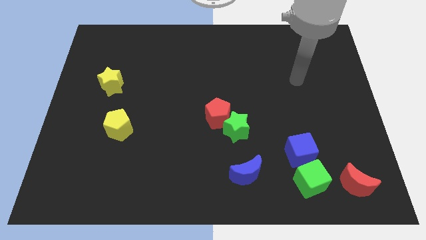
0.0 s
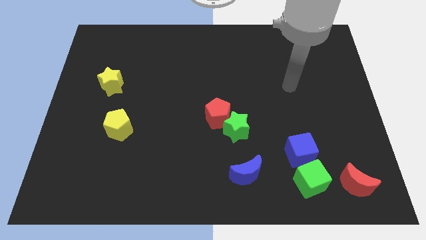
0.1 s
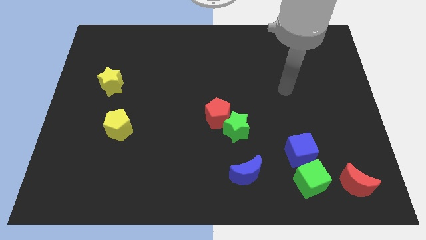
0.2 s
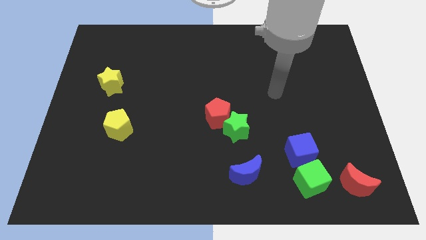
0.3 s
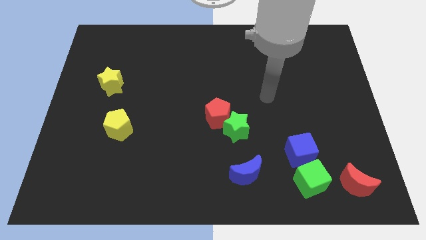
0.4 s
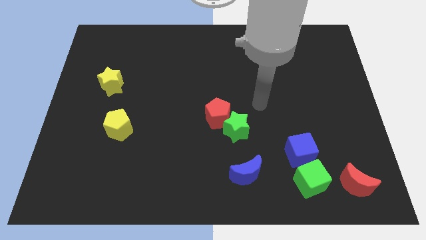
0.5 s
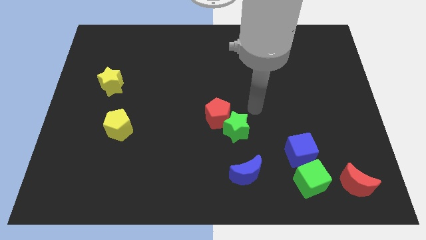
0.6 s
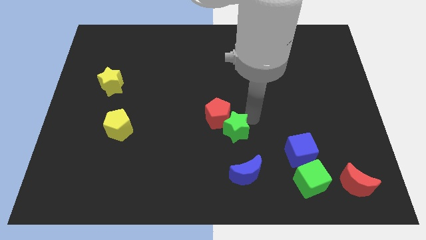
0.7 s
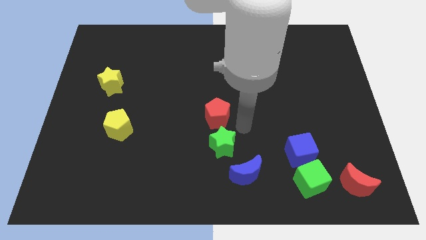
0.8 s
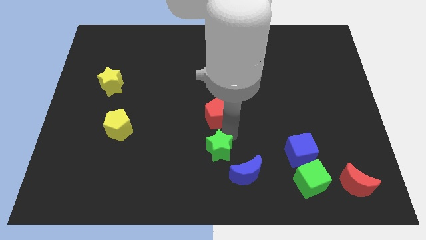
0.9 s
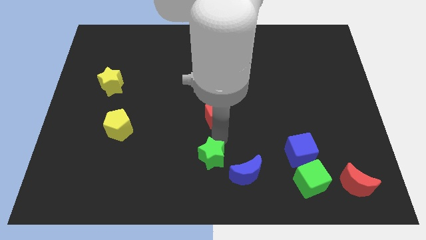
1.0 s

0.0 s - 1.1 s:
separate the red pentagon from the green star

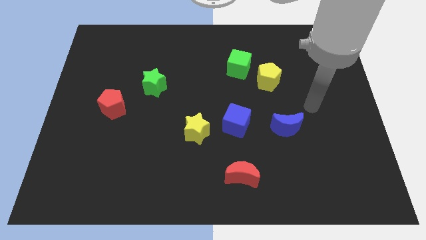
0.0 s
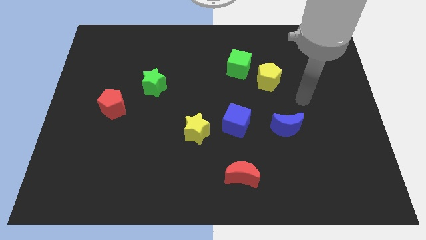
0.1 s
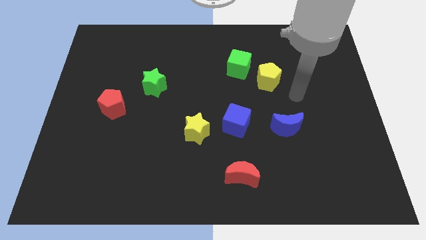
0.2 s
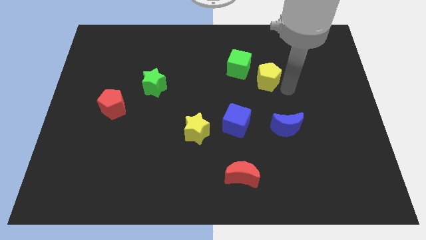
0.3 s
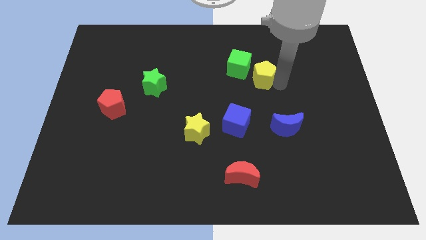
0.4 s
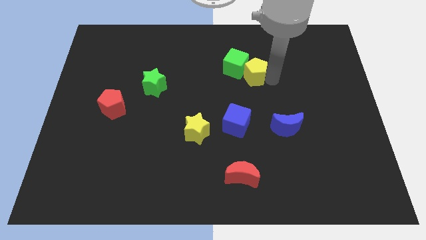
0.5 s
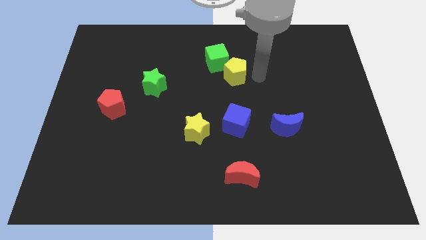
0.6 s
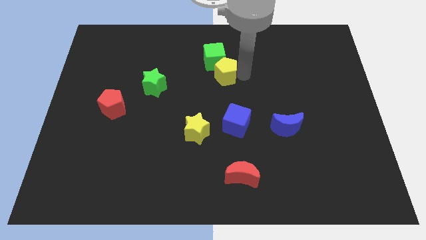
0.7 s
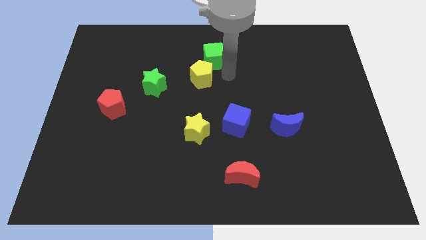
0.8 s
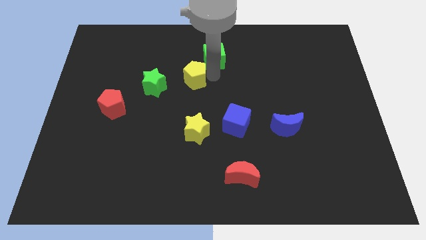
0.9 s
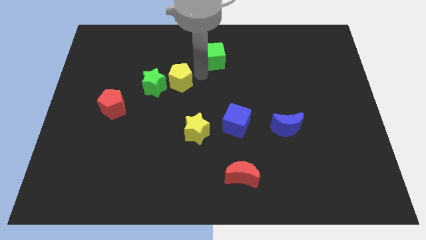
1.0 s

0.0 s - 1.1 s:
separate the green cube from the yellow pentagon

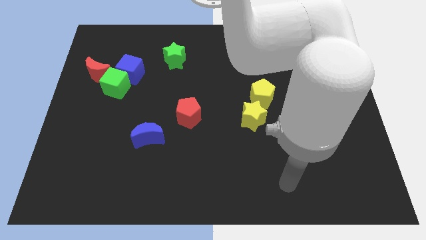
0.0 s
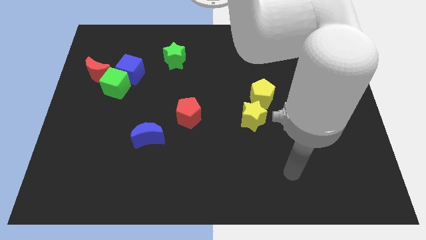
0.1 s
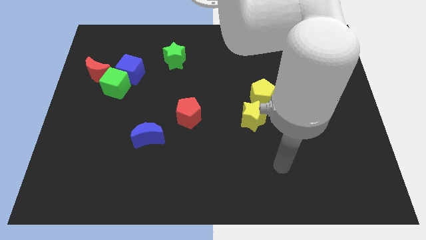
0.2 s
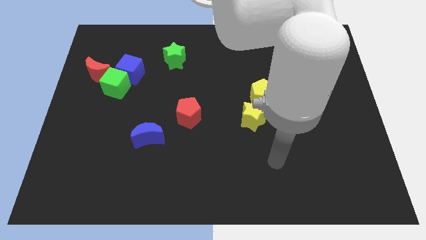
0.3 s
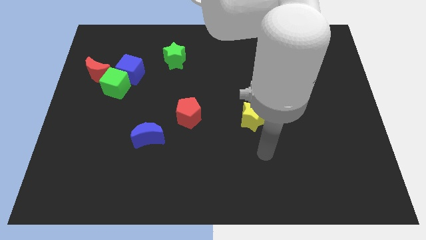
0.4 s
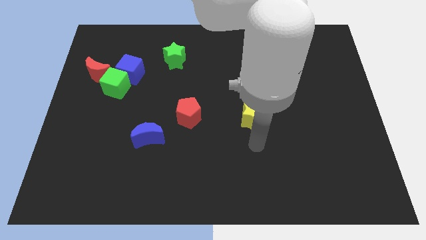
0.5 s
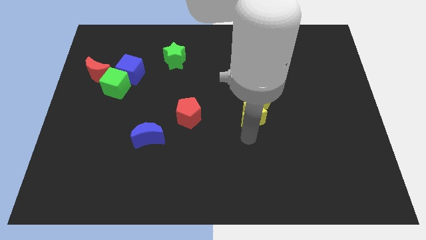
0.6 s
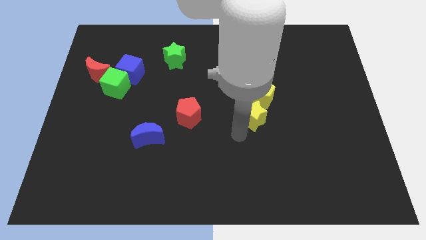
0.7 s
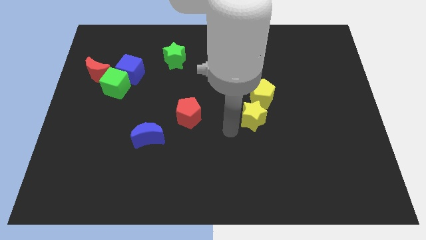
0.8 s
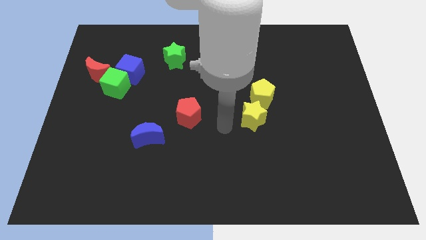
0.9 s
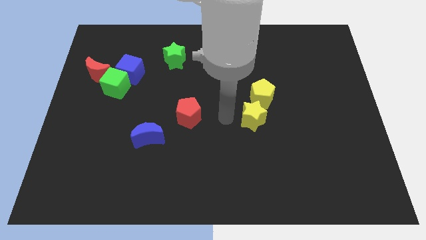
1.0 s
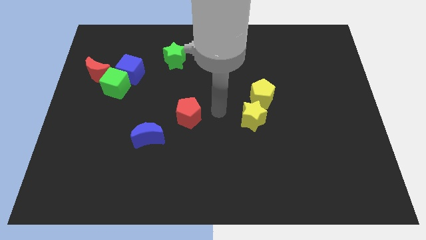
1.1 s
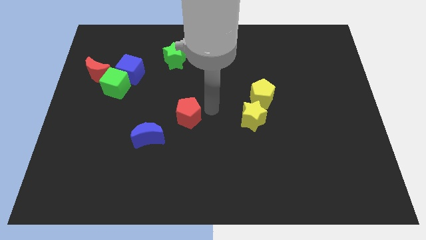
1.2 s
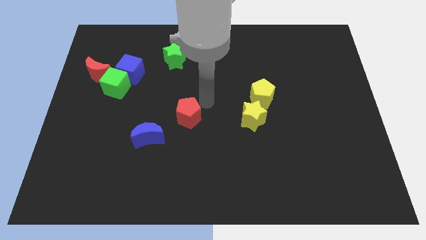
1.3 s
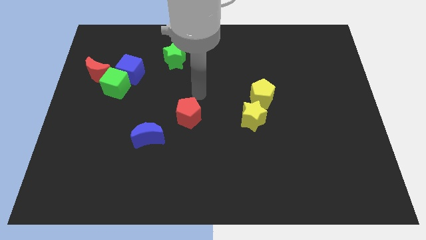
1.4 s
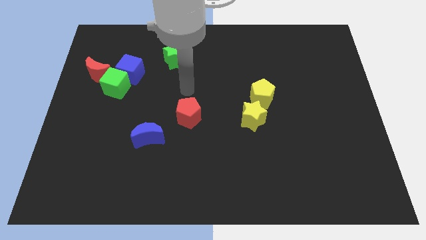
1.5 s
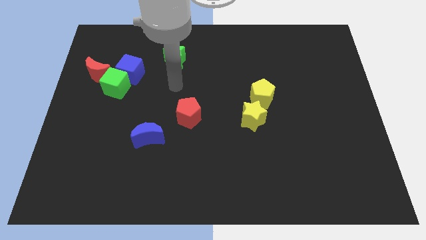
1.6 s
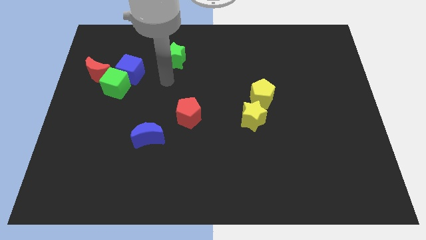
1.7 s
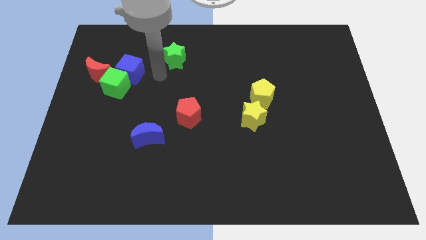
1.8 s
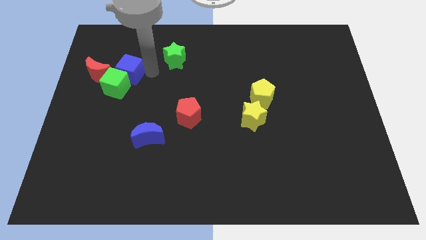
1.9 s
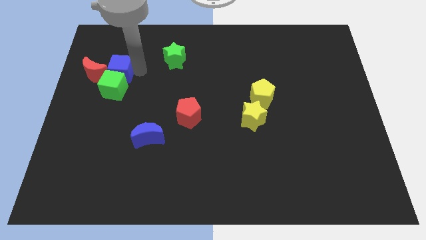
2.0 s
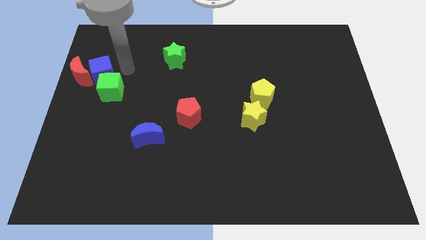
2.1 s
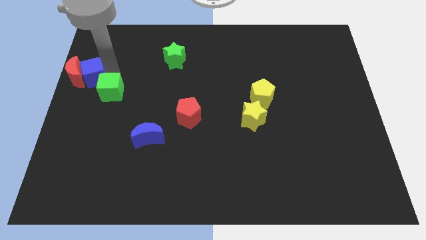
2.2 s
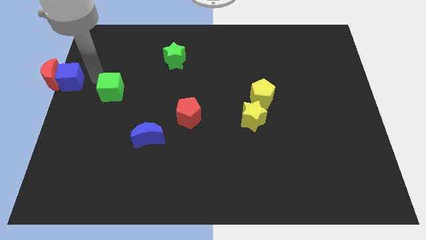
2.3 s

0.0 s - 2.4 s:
separate the green cube from the blue cube and red moon

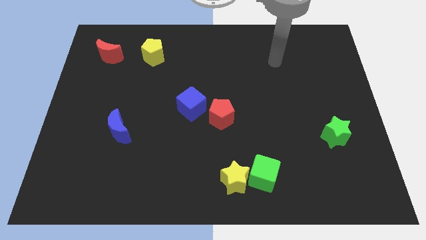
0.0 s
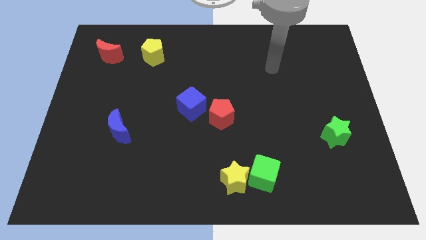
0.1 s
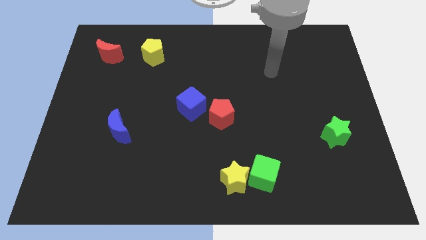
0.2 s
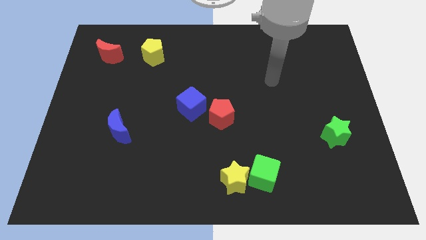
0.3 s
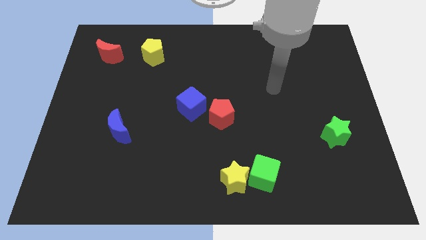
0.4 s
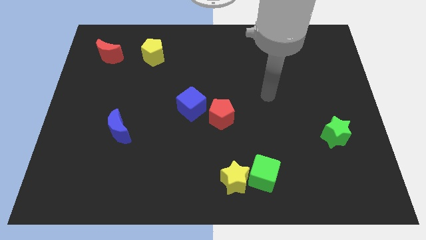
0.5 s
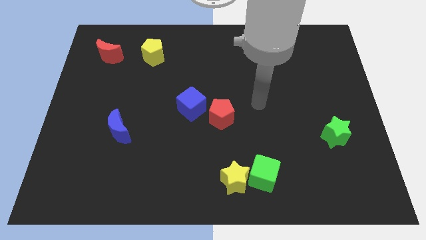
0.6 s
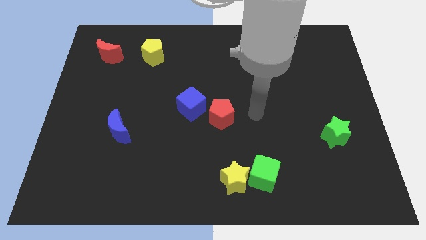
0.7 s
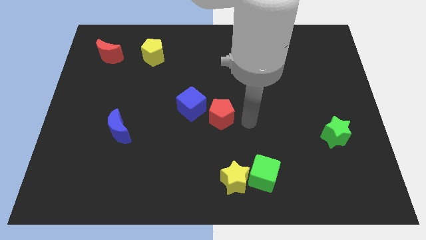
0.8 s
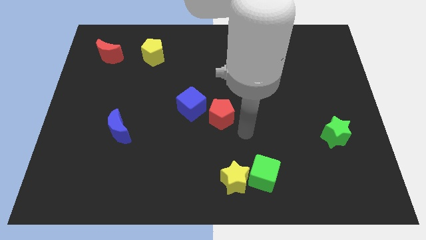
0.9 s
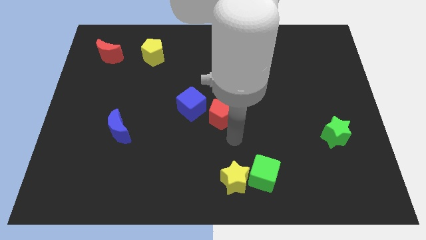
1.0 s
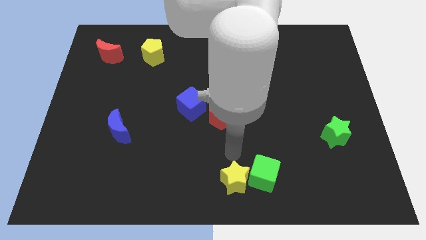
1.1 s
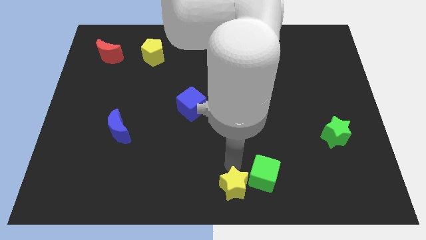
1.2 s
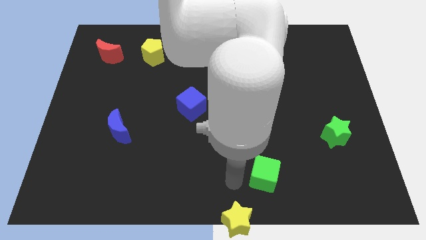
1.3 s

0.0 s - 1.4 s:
pull the green cube apart from the yellow star

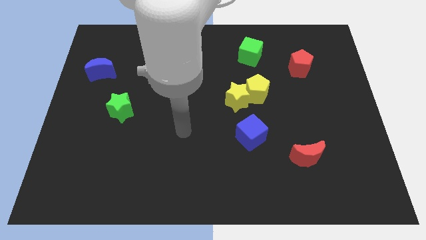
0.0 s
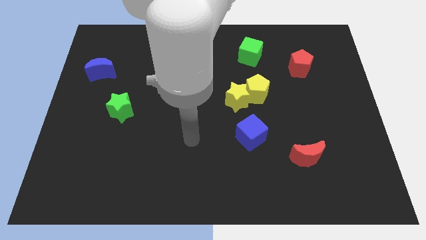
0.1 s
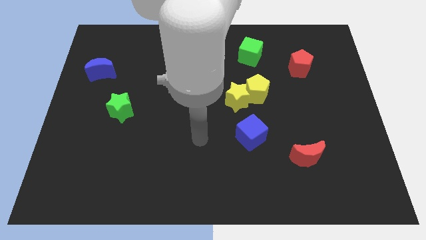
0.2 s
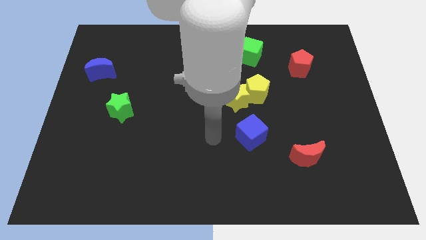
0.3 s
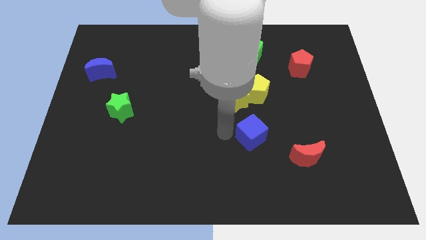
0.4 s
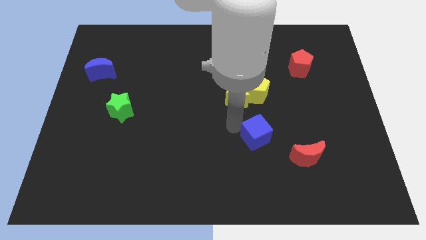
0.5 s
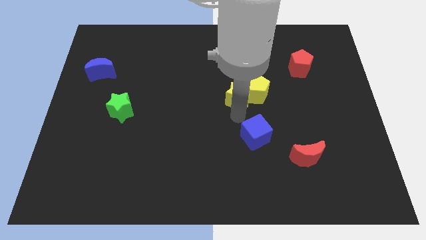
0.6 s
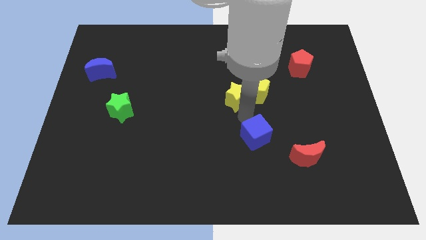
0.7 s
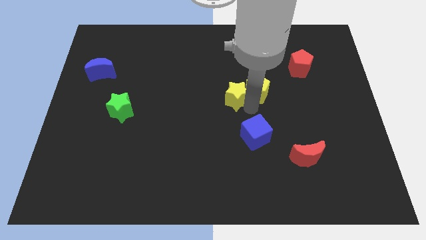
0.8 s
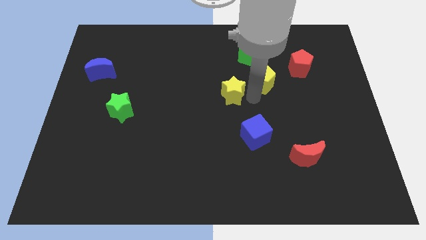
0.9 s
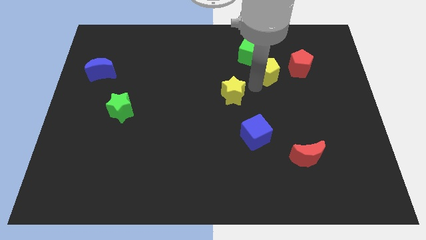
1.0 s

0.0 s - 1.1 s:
separate the yellow star from the yellow pentagon

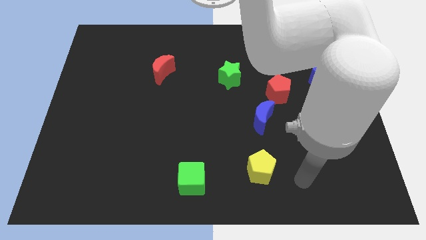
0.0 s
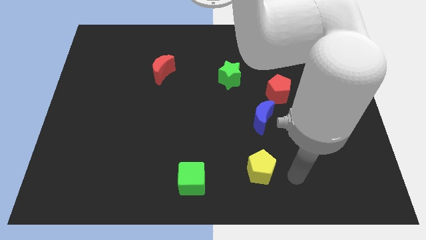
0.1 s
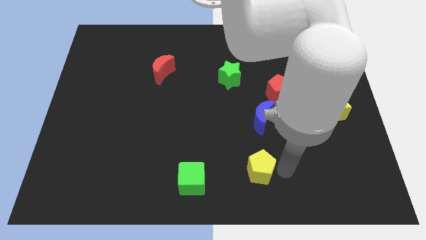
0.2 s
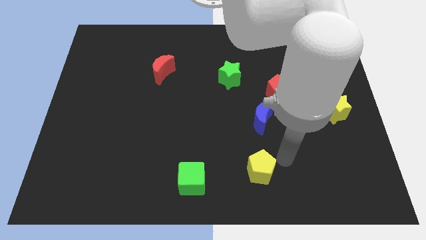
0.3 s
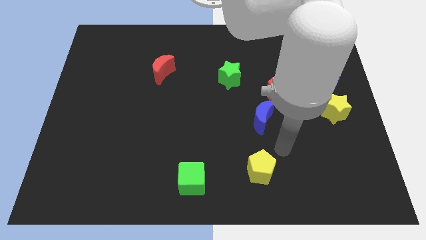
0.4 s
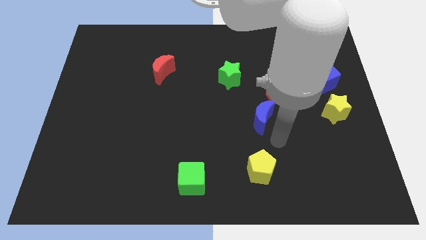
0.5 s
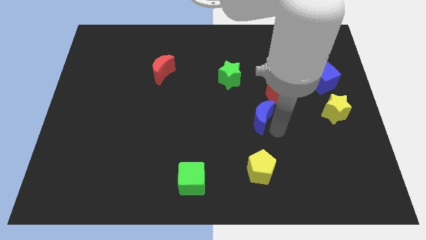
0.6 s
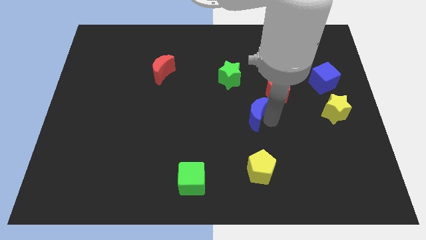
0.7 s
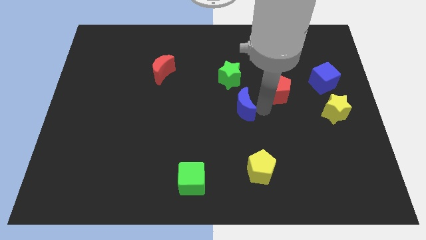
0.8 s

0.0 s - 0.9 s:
move the red pentagon away from the blue moon

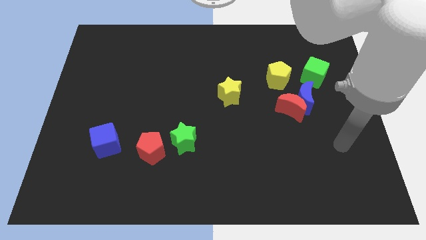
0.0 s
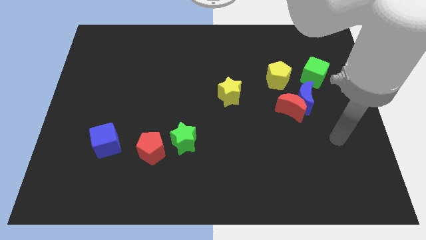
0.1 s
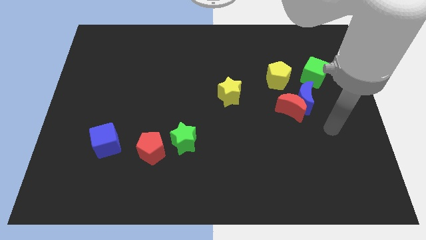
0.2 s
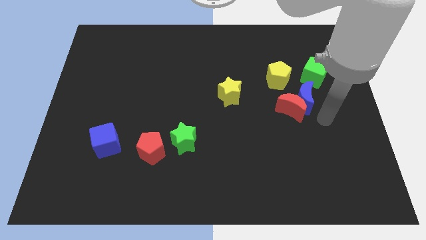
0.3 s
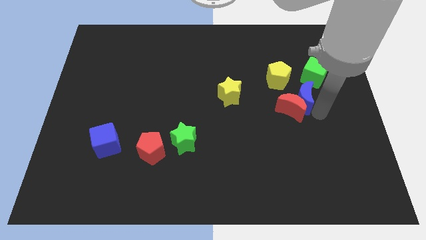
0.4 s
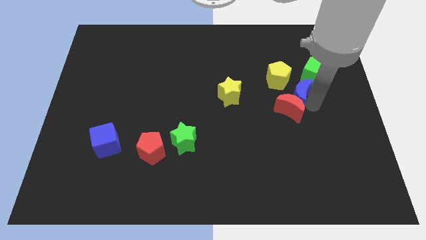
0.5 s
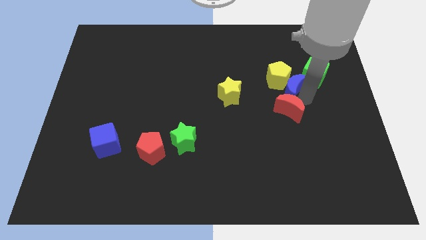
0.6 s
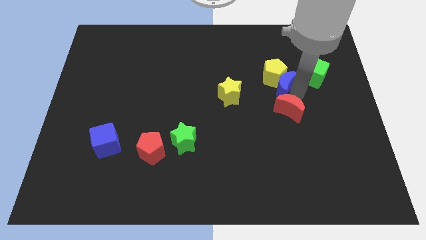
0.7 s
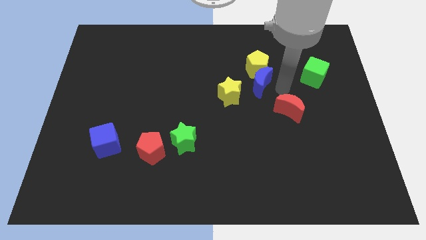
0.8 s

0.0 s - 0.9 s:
separate the red moon from the blue moon and yellow pentagon

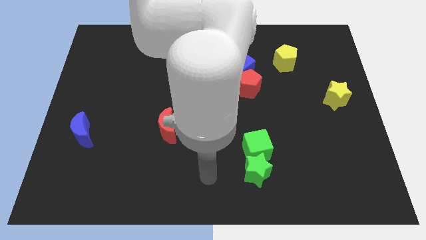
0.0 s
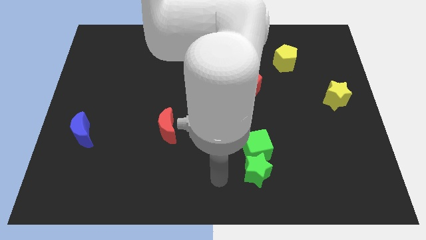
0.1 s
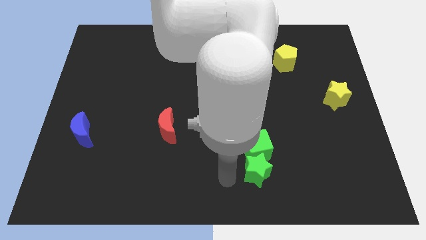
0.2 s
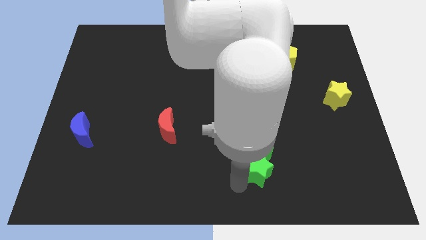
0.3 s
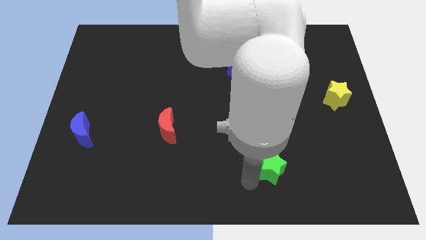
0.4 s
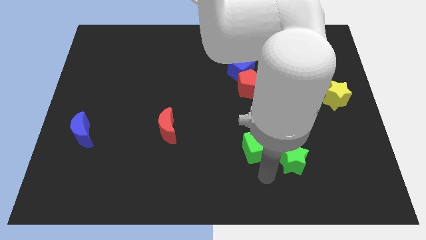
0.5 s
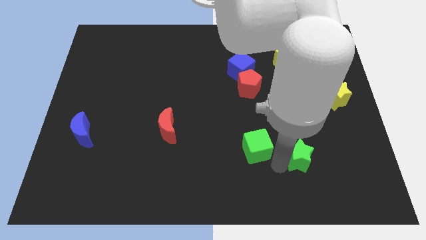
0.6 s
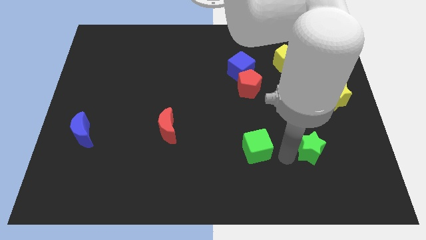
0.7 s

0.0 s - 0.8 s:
pull the green cube apart from the green star
